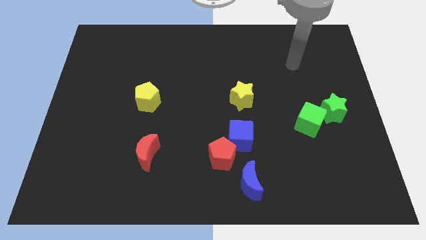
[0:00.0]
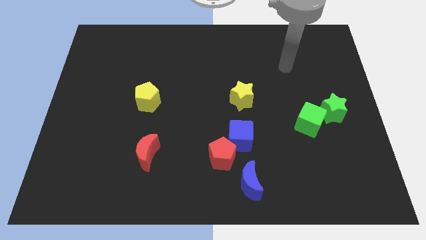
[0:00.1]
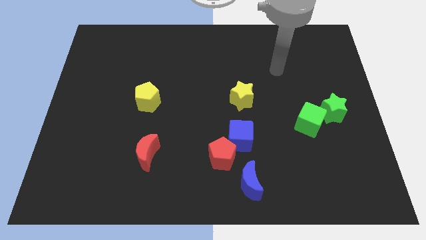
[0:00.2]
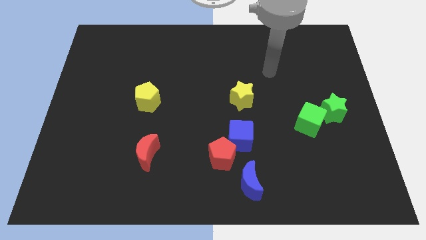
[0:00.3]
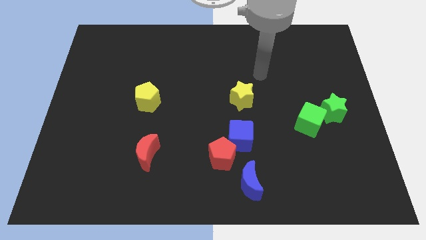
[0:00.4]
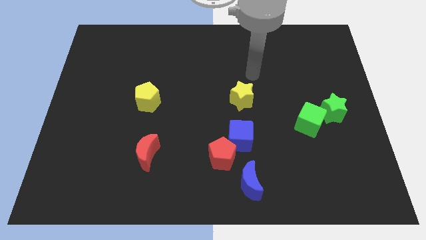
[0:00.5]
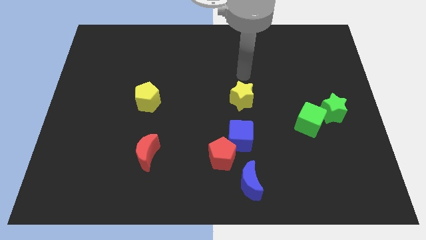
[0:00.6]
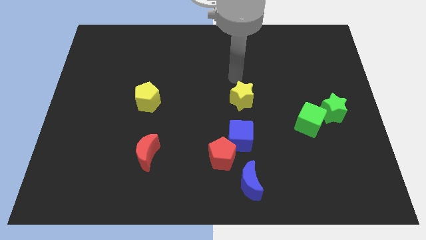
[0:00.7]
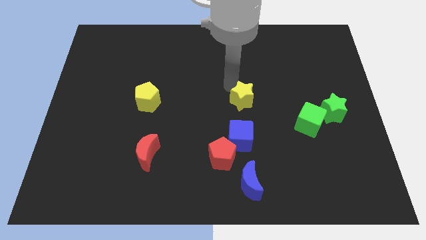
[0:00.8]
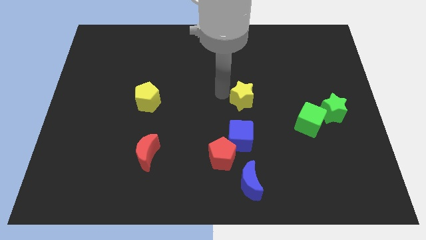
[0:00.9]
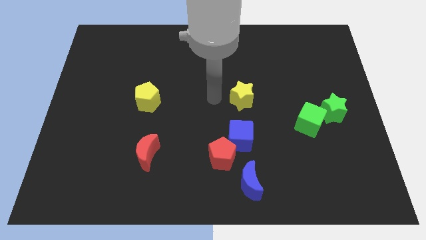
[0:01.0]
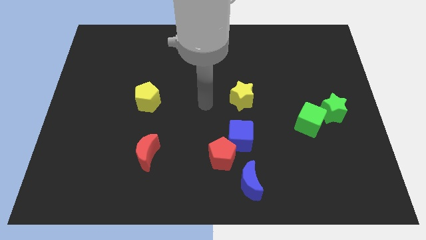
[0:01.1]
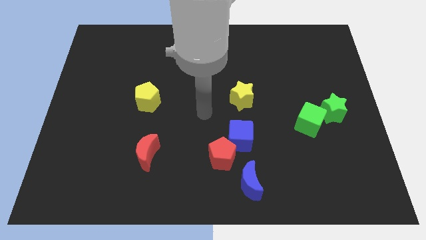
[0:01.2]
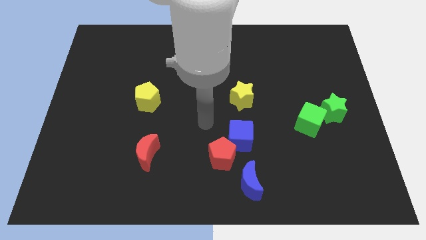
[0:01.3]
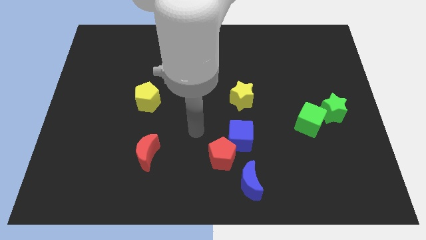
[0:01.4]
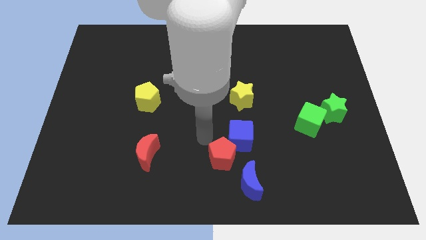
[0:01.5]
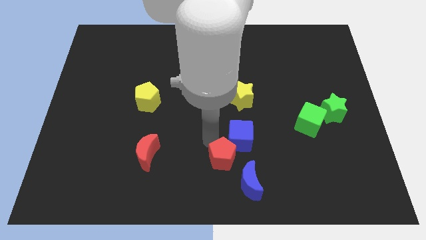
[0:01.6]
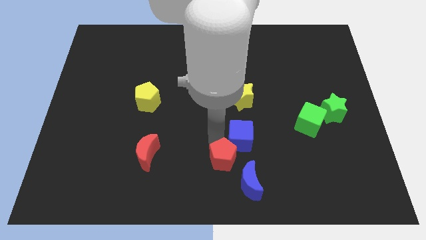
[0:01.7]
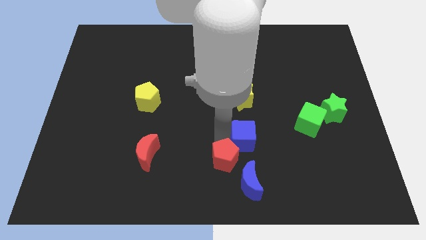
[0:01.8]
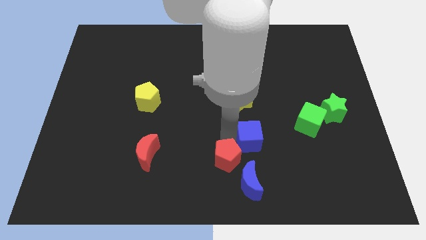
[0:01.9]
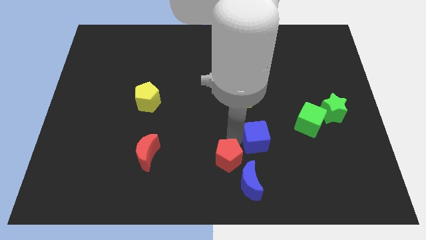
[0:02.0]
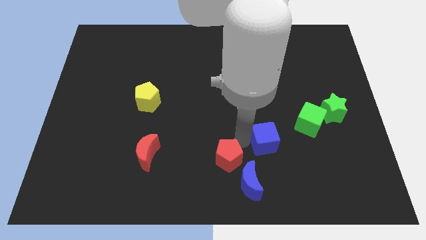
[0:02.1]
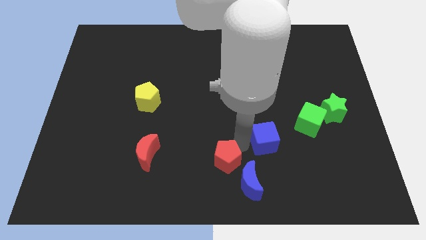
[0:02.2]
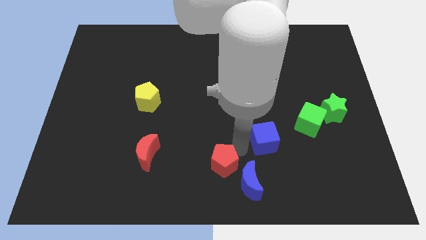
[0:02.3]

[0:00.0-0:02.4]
move the blue cube away from the red pentagon

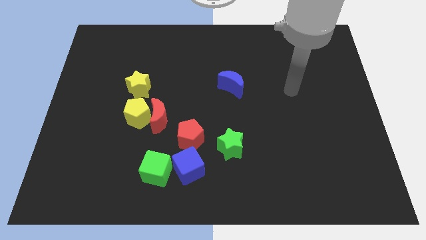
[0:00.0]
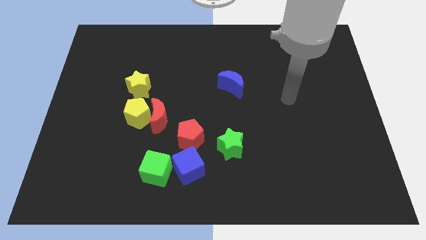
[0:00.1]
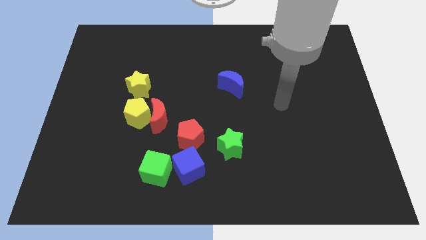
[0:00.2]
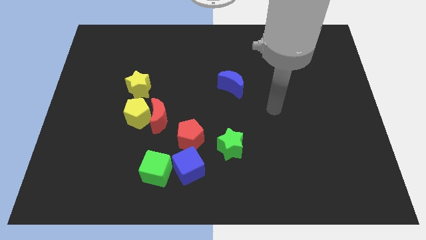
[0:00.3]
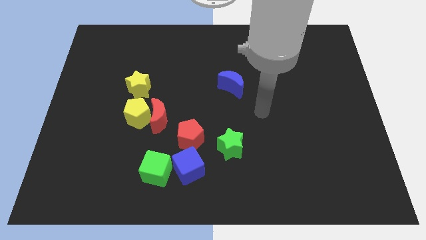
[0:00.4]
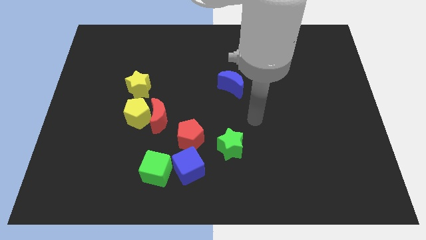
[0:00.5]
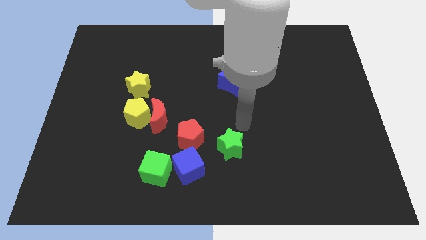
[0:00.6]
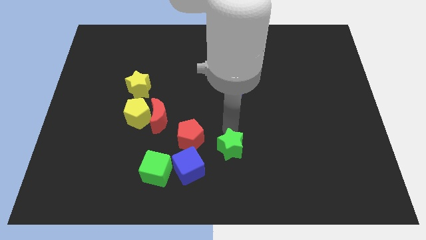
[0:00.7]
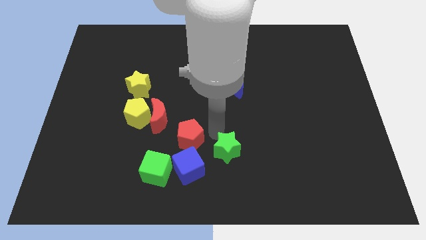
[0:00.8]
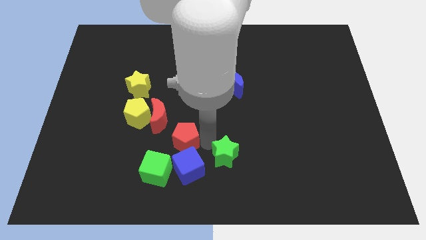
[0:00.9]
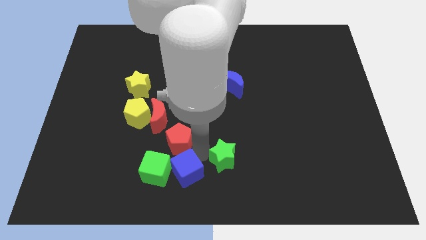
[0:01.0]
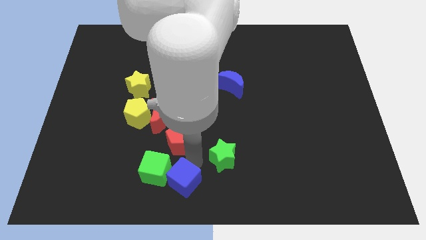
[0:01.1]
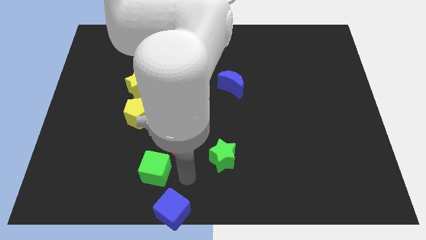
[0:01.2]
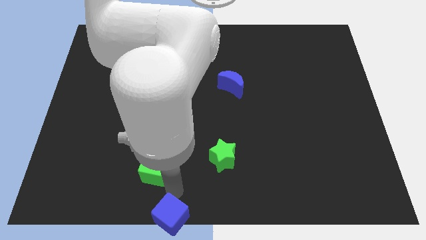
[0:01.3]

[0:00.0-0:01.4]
move the green cube away from the blue cube

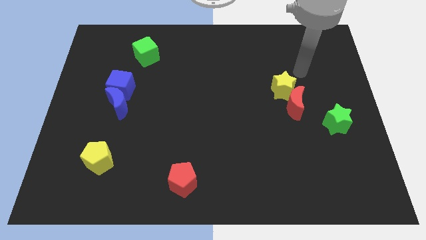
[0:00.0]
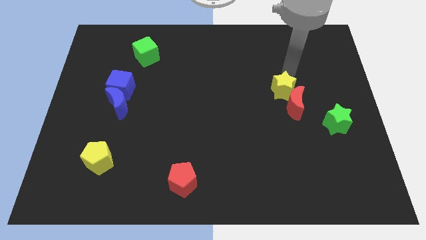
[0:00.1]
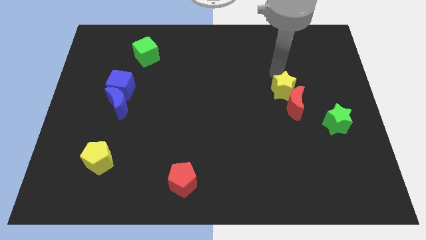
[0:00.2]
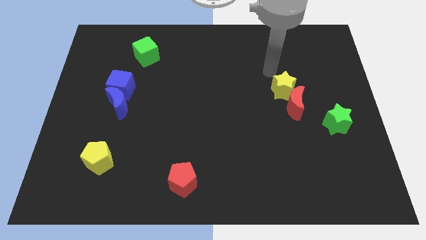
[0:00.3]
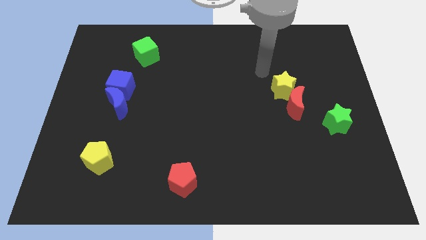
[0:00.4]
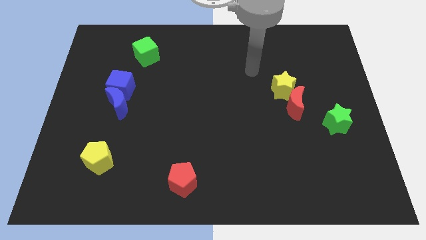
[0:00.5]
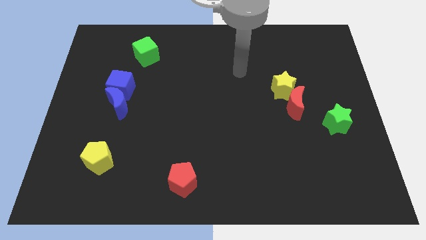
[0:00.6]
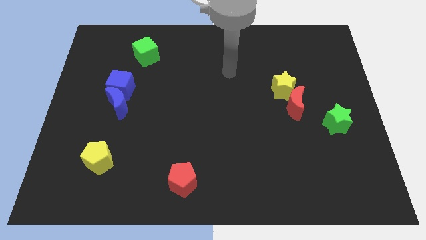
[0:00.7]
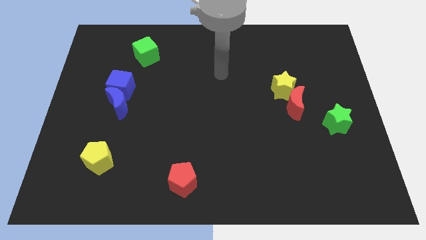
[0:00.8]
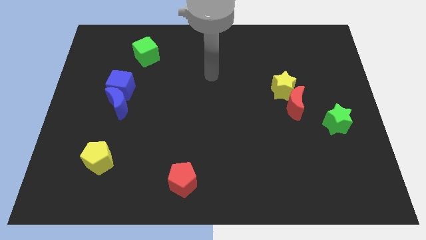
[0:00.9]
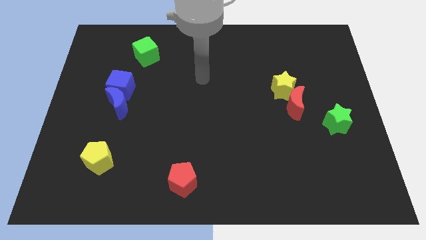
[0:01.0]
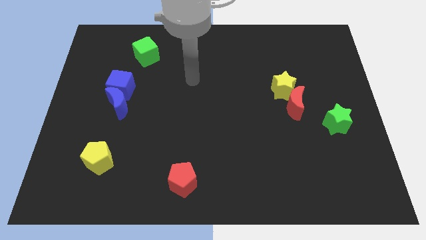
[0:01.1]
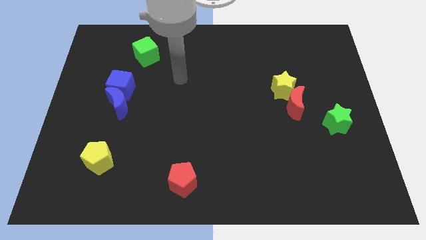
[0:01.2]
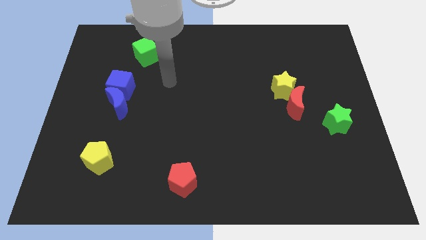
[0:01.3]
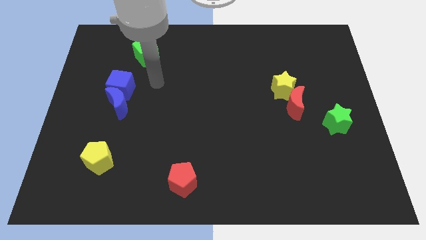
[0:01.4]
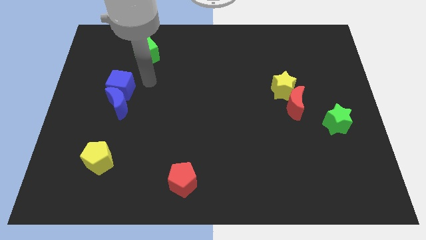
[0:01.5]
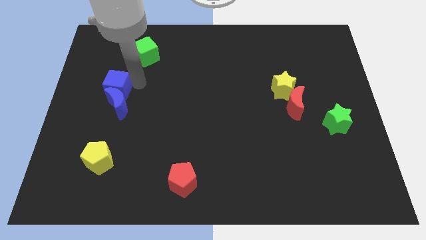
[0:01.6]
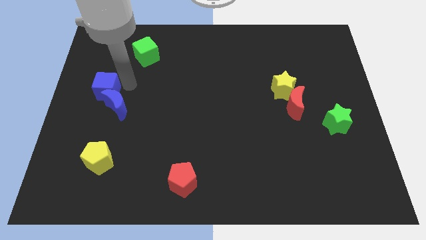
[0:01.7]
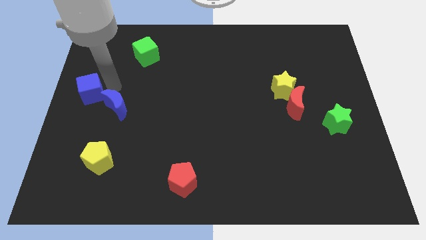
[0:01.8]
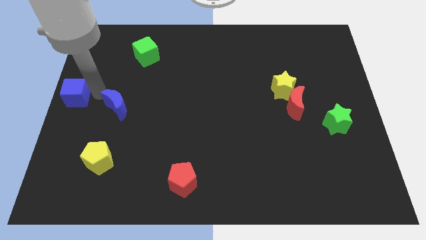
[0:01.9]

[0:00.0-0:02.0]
move the blue moon away from the blue cube

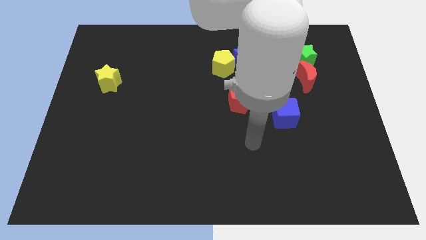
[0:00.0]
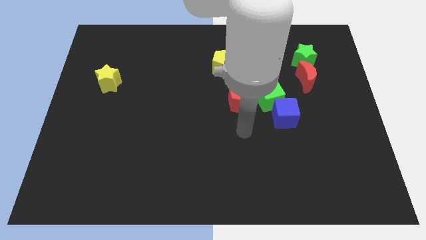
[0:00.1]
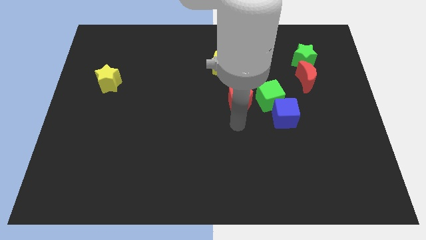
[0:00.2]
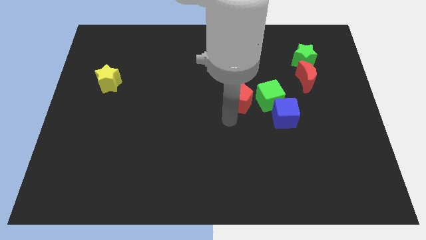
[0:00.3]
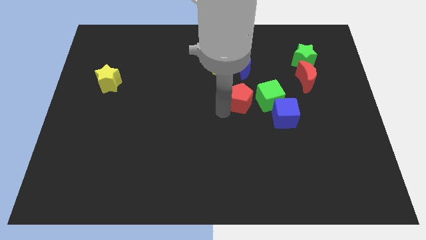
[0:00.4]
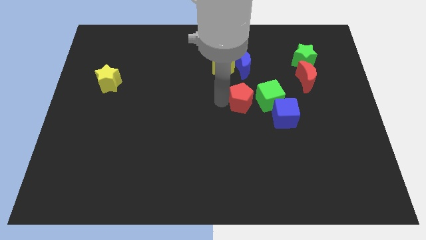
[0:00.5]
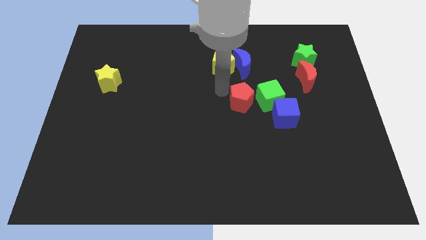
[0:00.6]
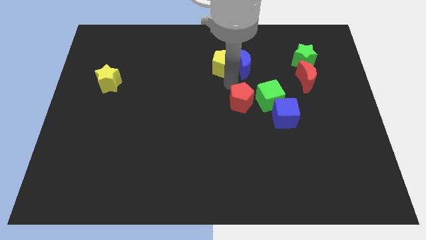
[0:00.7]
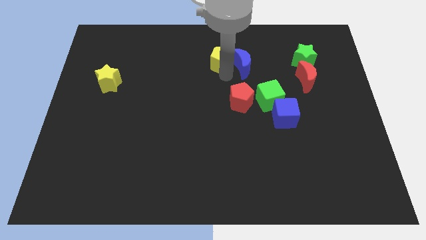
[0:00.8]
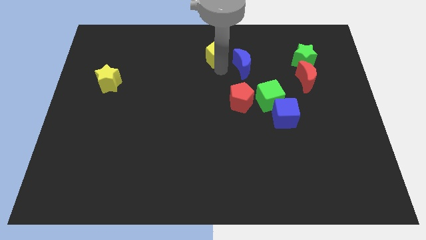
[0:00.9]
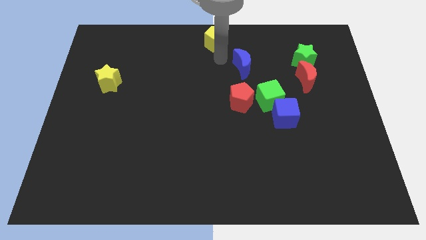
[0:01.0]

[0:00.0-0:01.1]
separate the blue moon from the yellow pentagon

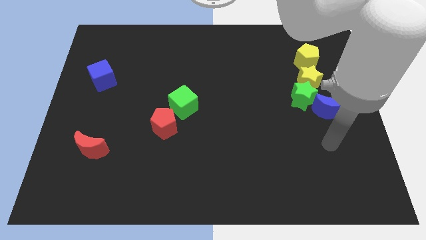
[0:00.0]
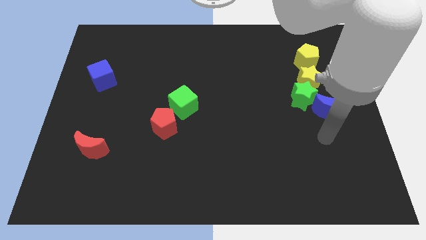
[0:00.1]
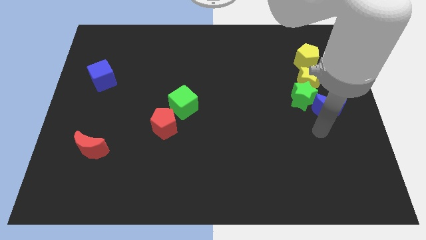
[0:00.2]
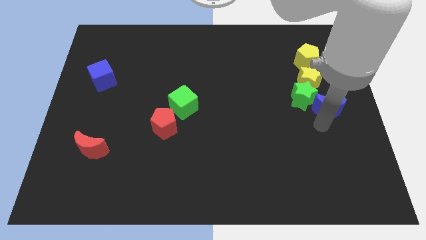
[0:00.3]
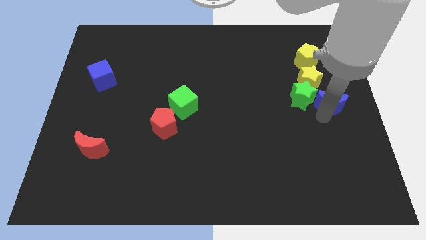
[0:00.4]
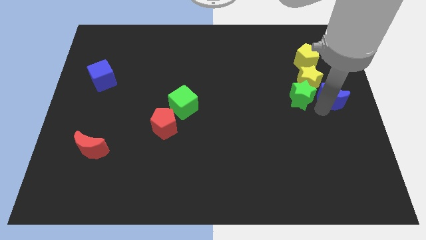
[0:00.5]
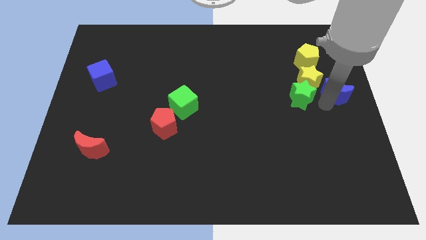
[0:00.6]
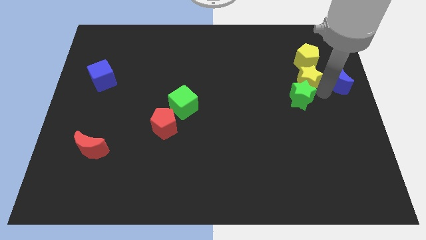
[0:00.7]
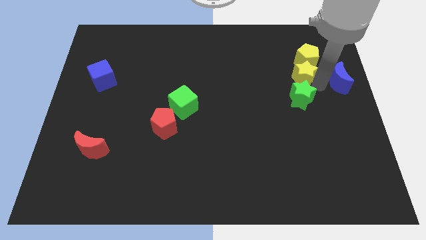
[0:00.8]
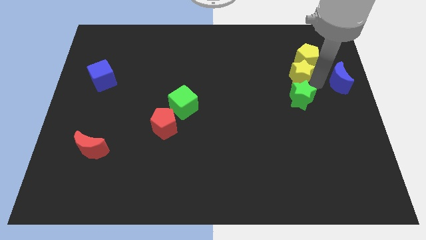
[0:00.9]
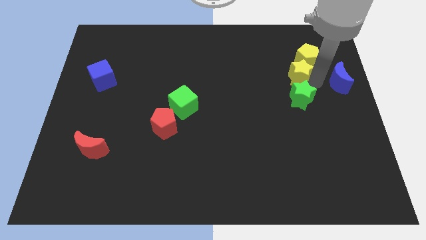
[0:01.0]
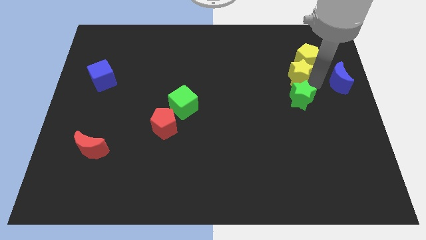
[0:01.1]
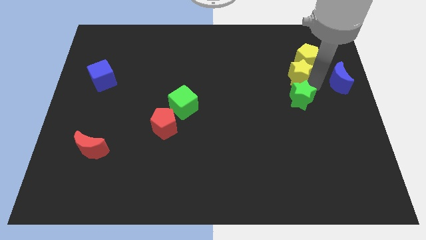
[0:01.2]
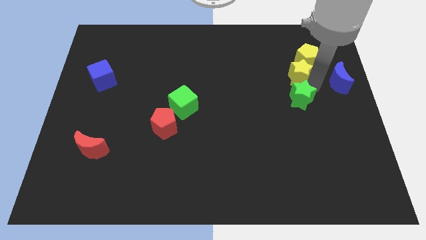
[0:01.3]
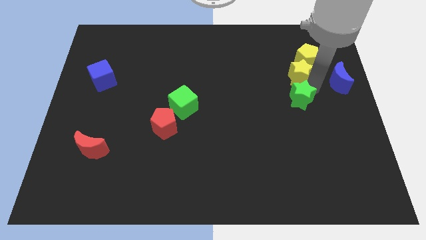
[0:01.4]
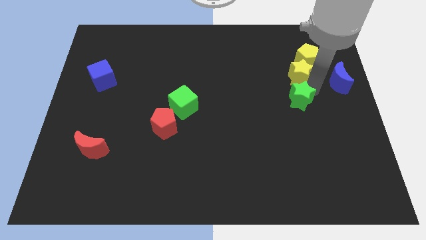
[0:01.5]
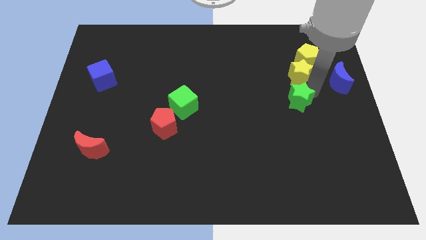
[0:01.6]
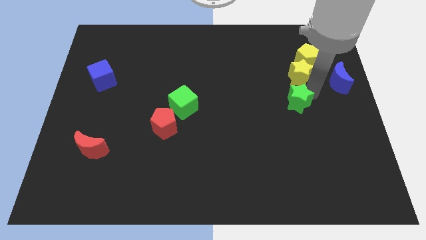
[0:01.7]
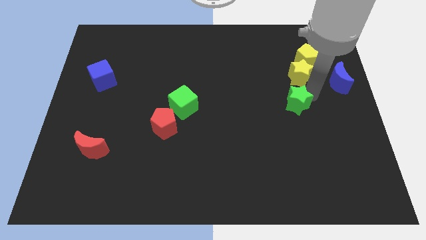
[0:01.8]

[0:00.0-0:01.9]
separate the green star from the yellow star and blue moon

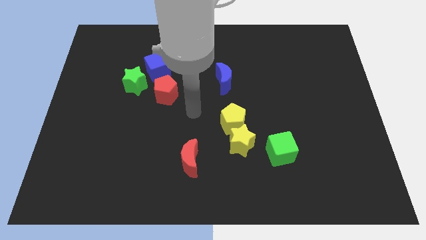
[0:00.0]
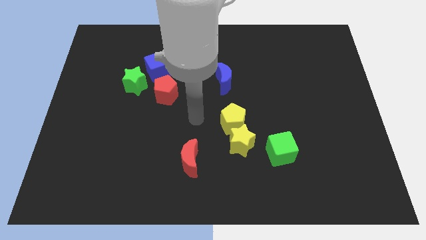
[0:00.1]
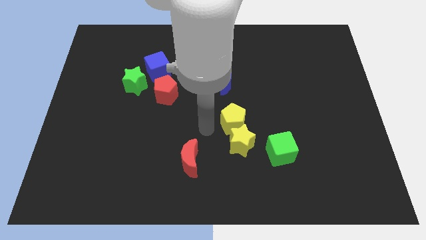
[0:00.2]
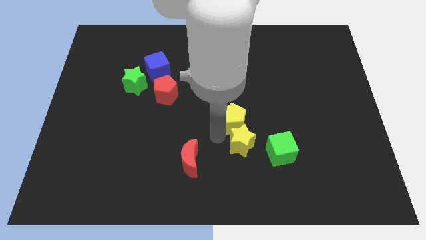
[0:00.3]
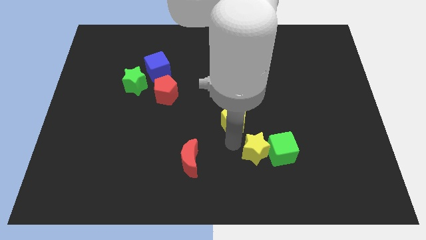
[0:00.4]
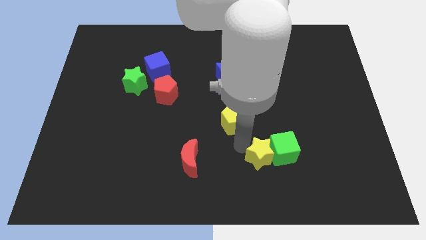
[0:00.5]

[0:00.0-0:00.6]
separate the yellow pentagon from the yellow star
